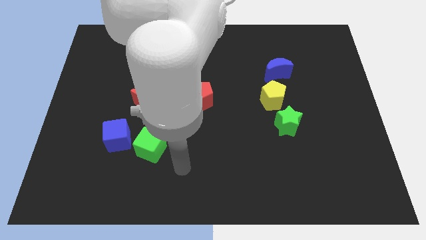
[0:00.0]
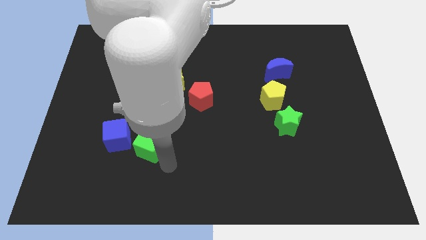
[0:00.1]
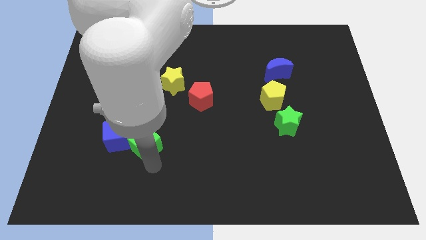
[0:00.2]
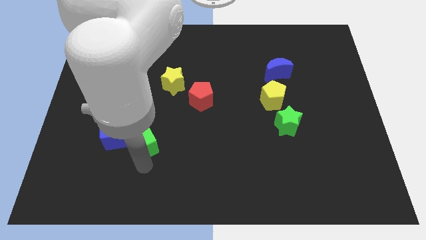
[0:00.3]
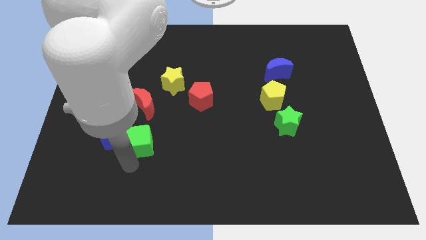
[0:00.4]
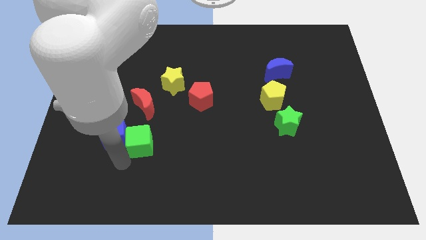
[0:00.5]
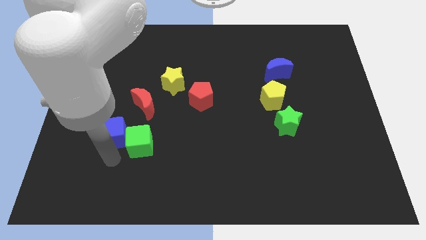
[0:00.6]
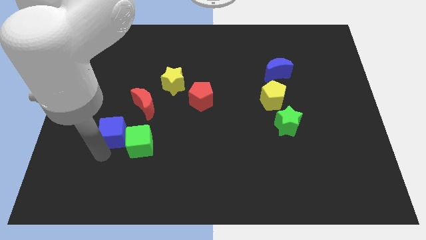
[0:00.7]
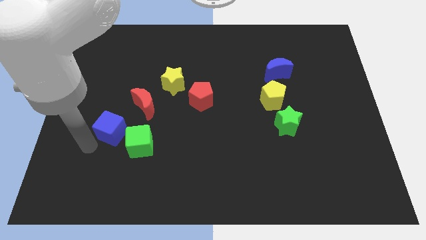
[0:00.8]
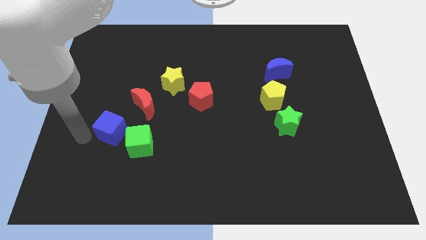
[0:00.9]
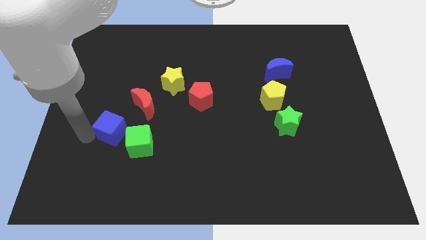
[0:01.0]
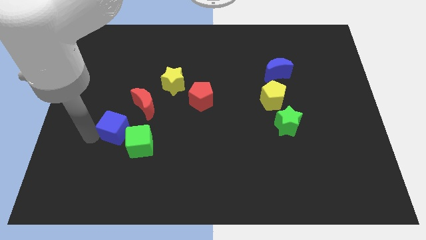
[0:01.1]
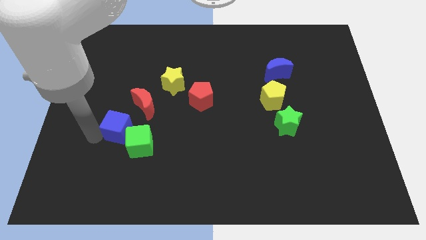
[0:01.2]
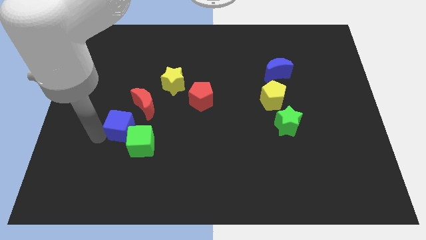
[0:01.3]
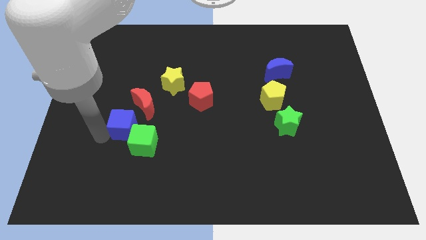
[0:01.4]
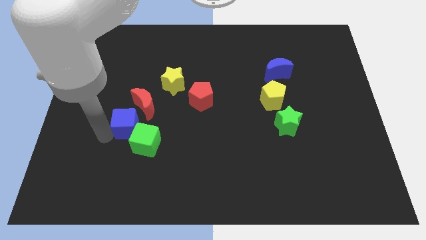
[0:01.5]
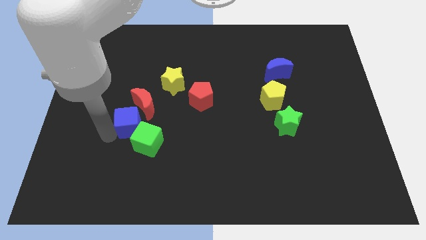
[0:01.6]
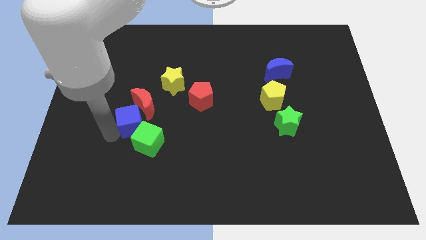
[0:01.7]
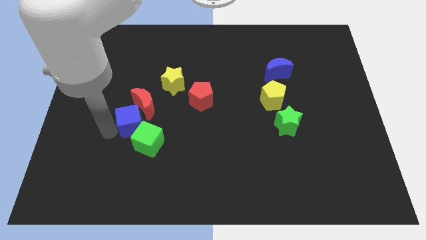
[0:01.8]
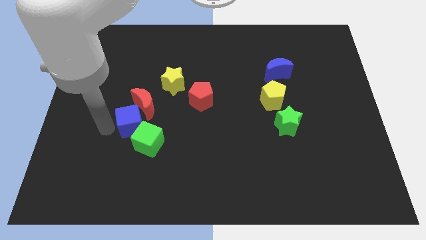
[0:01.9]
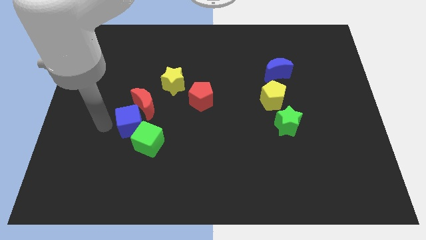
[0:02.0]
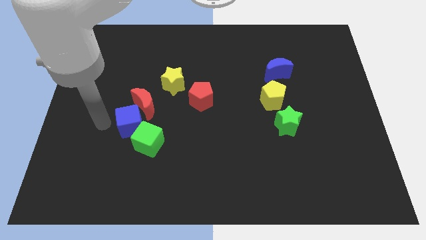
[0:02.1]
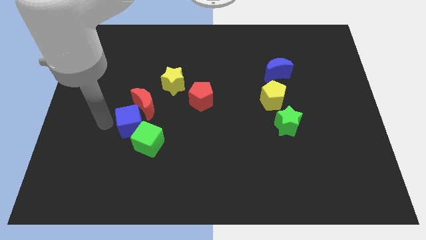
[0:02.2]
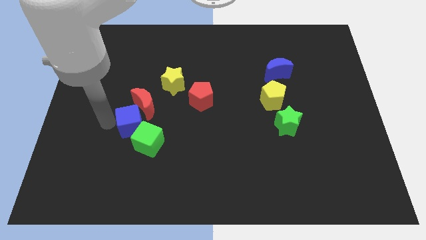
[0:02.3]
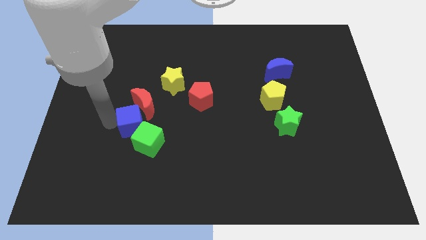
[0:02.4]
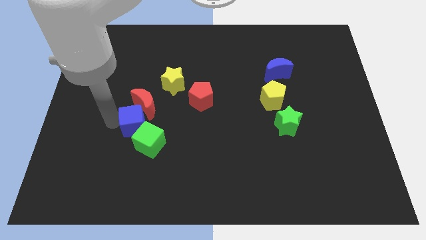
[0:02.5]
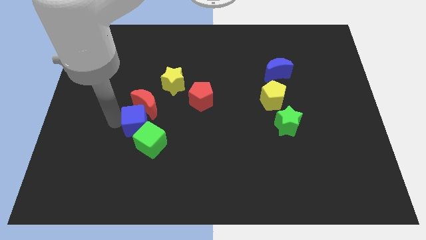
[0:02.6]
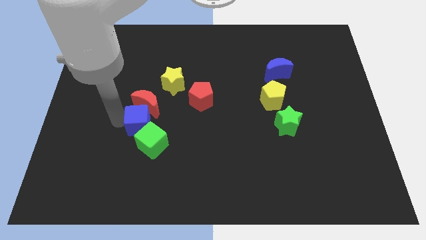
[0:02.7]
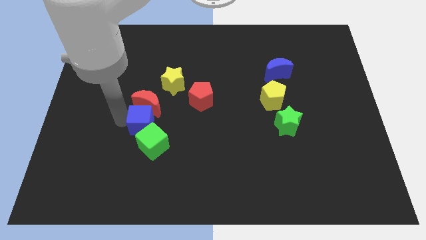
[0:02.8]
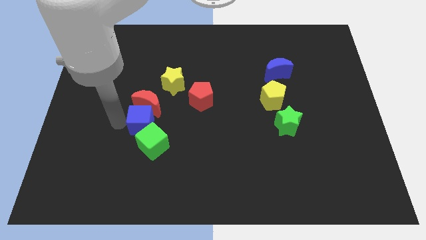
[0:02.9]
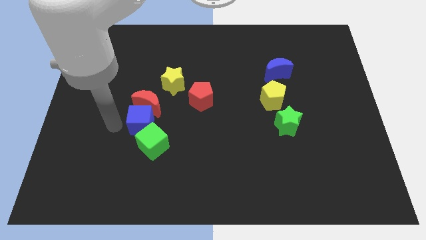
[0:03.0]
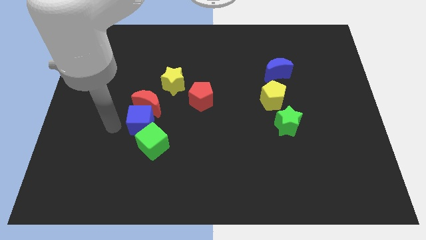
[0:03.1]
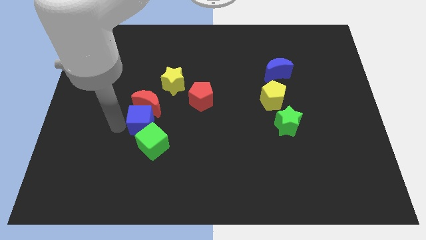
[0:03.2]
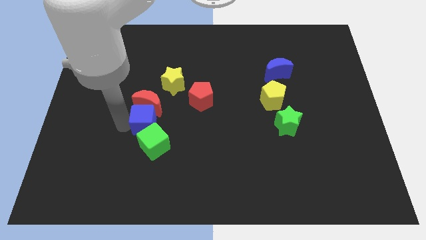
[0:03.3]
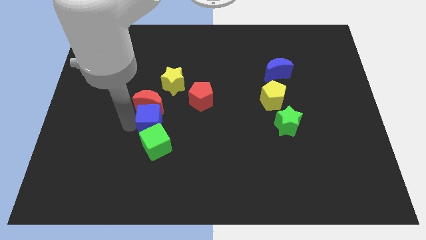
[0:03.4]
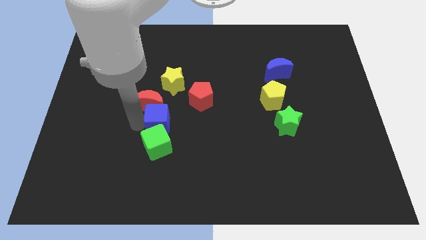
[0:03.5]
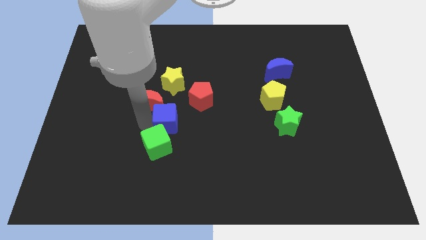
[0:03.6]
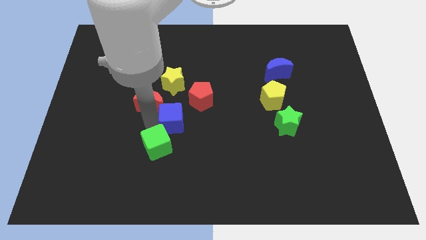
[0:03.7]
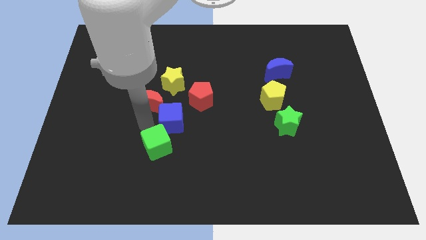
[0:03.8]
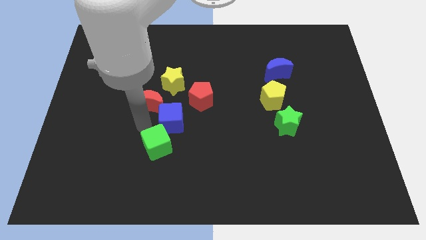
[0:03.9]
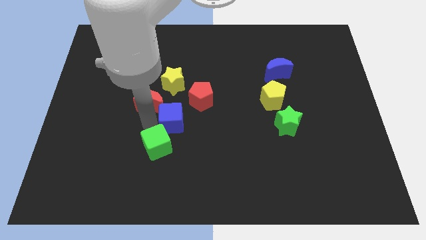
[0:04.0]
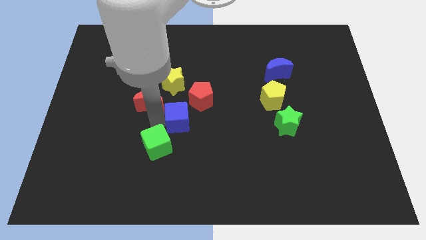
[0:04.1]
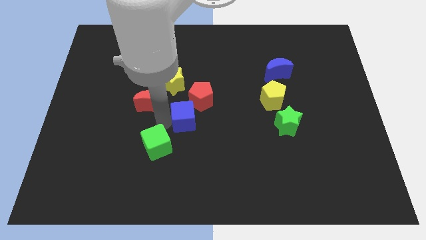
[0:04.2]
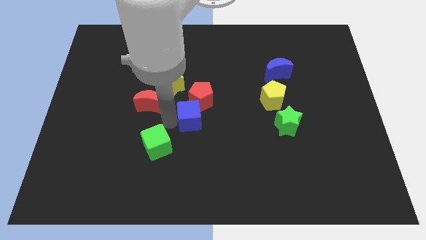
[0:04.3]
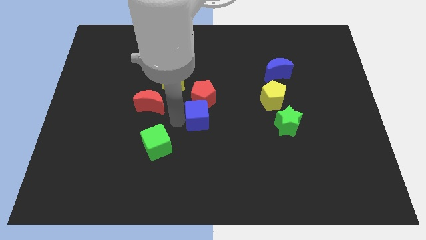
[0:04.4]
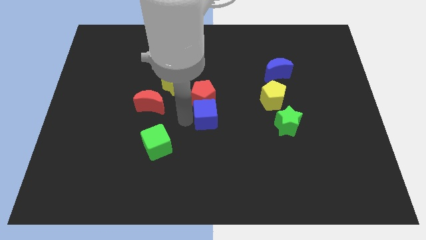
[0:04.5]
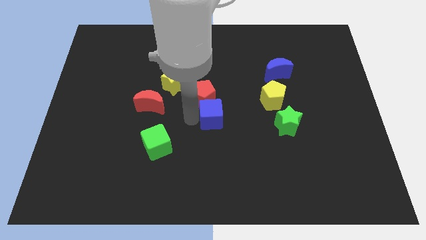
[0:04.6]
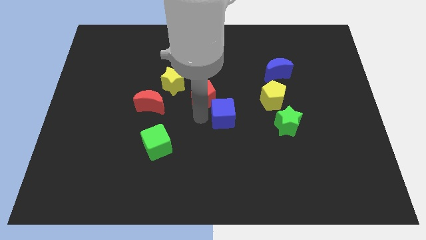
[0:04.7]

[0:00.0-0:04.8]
push the blue cube right

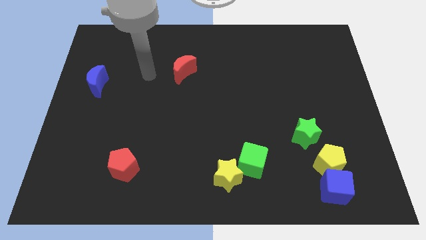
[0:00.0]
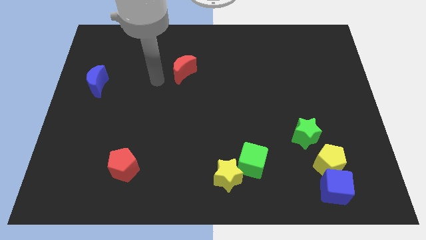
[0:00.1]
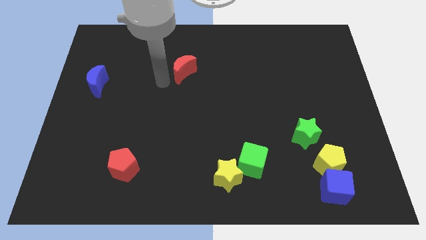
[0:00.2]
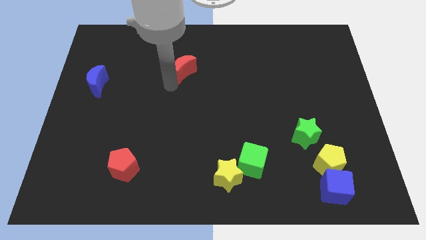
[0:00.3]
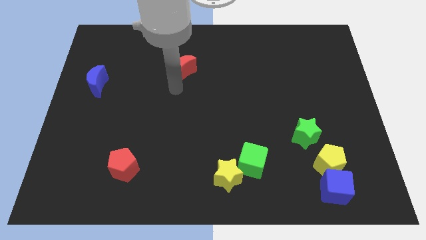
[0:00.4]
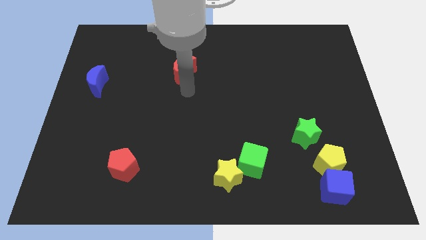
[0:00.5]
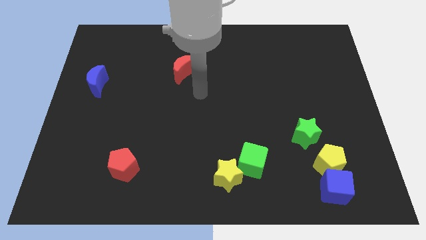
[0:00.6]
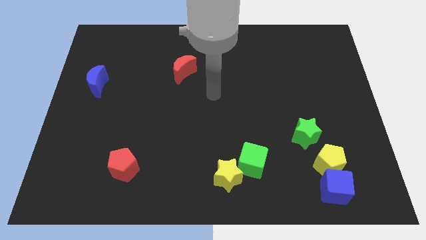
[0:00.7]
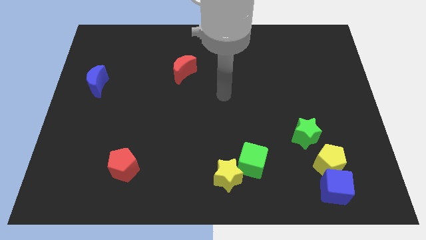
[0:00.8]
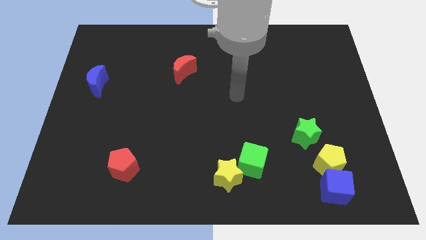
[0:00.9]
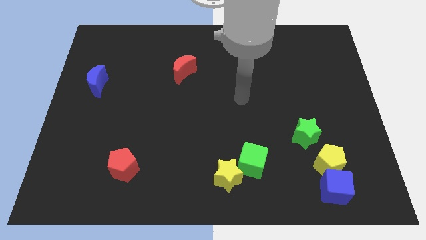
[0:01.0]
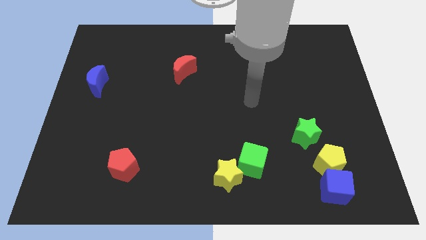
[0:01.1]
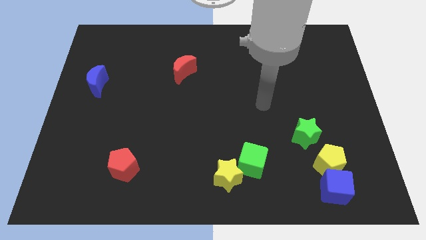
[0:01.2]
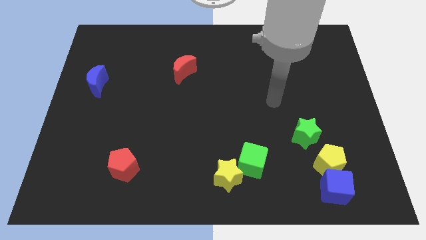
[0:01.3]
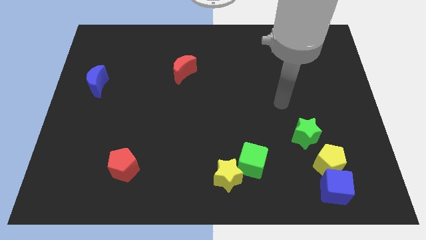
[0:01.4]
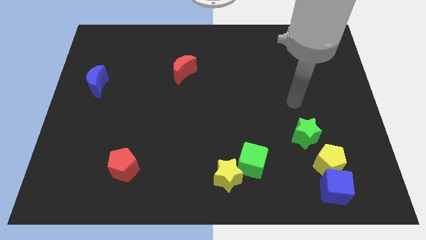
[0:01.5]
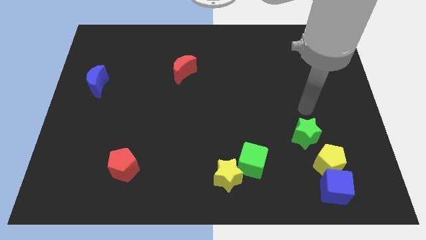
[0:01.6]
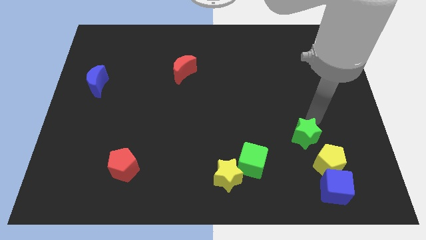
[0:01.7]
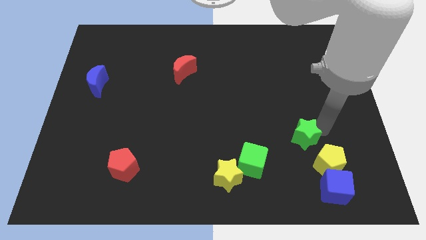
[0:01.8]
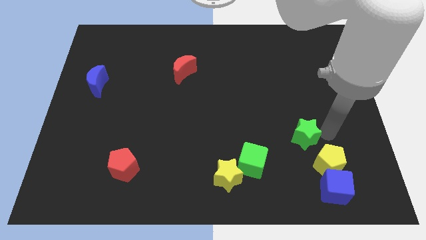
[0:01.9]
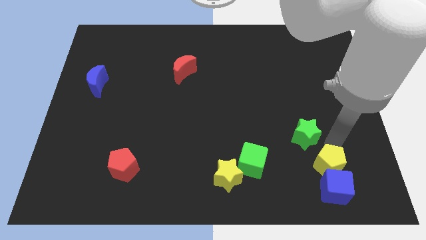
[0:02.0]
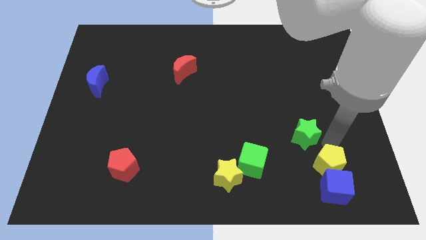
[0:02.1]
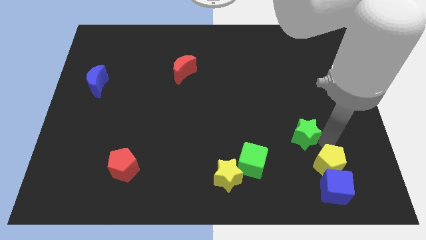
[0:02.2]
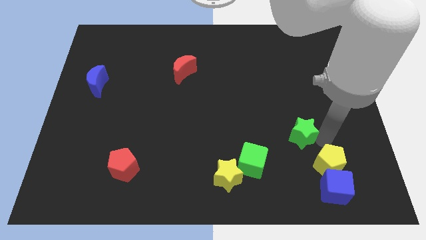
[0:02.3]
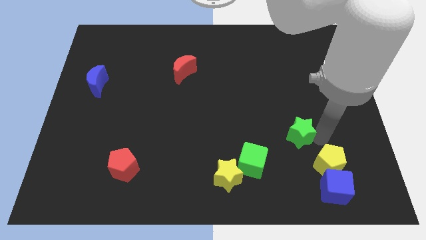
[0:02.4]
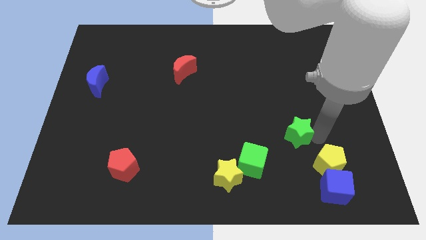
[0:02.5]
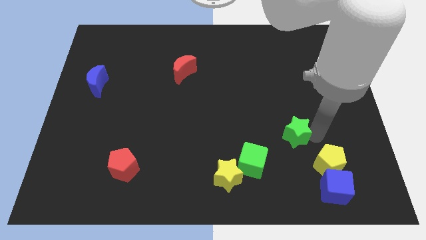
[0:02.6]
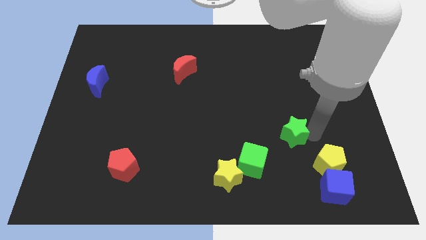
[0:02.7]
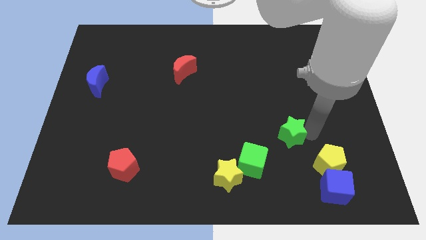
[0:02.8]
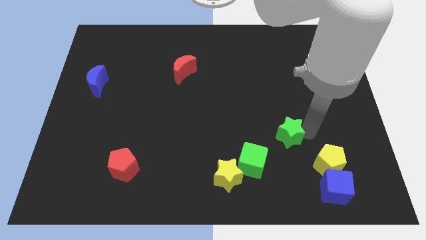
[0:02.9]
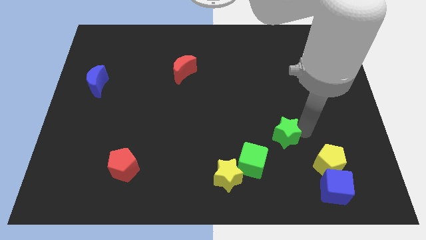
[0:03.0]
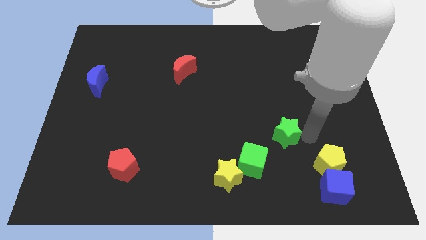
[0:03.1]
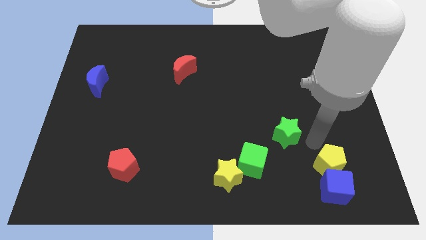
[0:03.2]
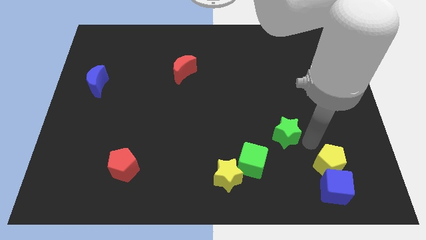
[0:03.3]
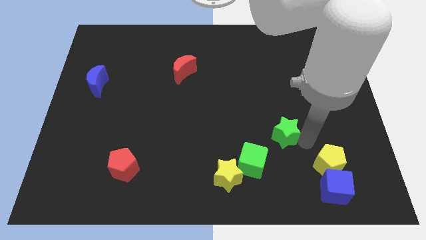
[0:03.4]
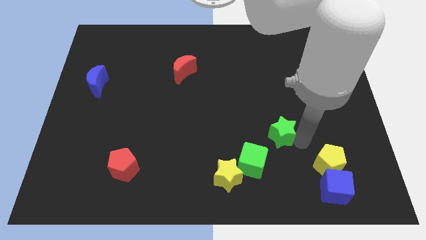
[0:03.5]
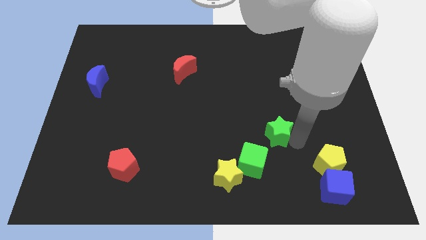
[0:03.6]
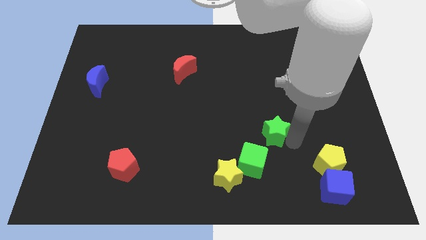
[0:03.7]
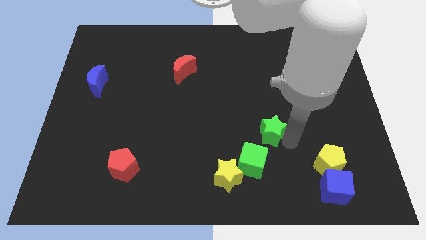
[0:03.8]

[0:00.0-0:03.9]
slide the green star somewhat to the left
